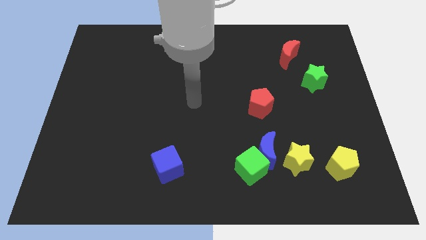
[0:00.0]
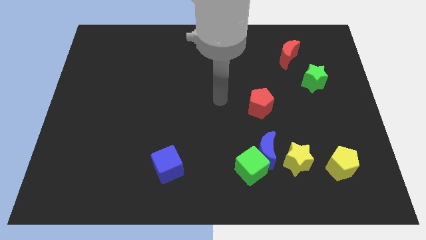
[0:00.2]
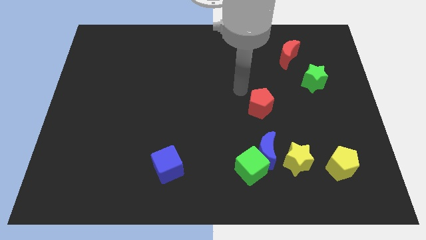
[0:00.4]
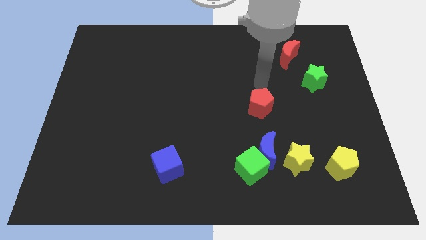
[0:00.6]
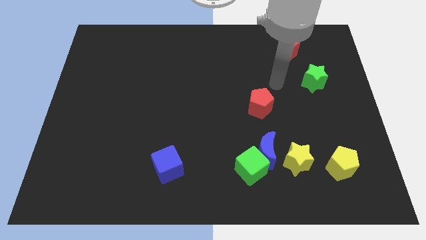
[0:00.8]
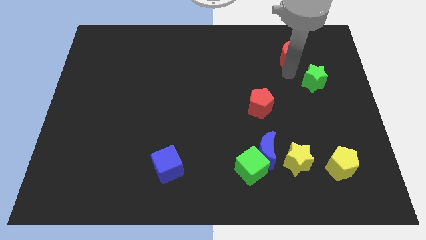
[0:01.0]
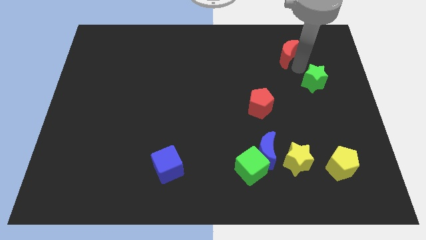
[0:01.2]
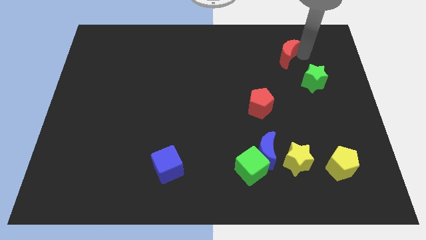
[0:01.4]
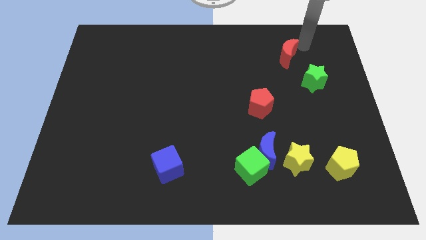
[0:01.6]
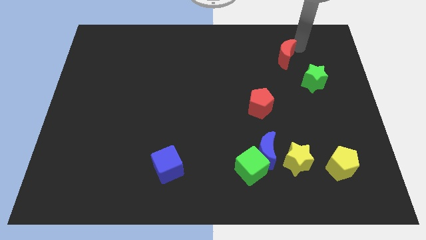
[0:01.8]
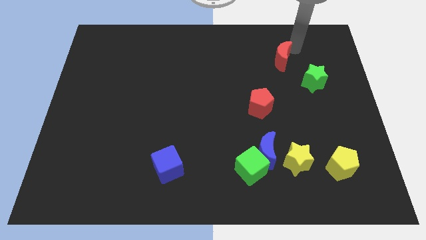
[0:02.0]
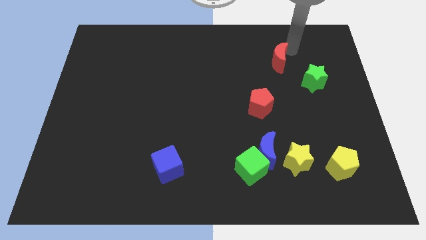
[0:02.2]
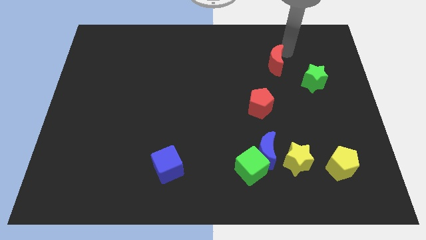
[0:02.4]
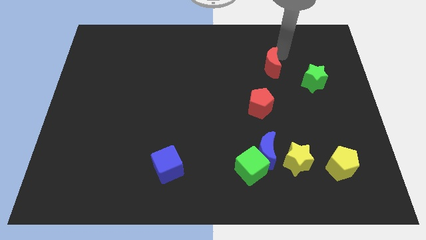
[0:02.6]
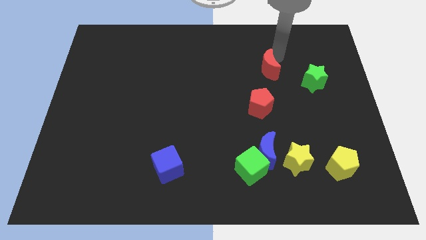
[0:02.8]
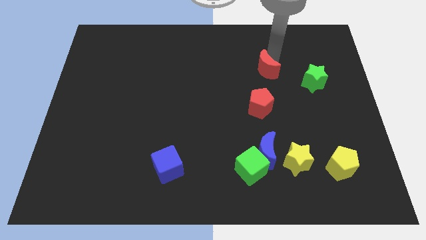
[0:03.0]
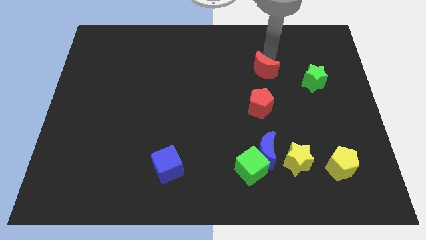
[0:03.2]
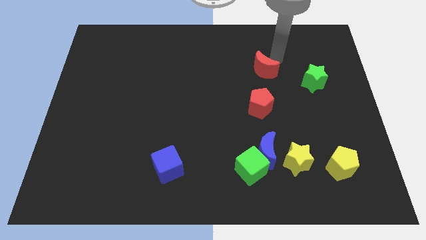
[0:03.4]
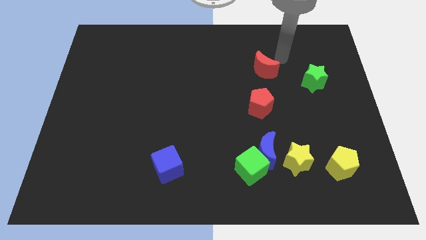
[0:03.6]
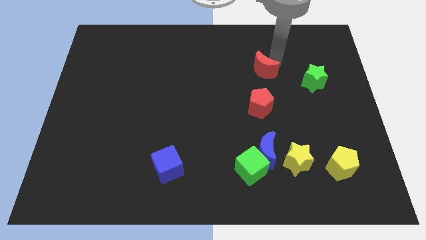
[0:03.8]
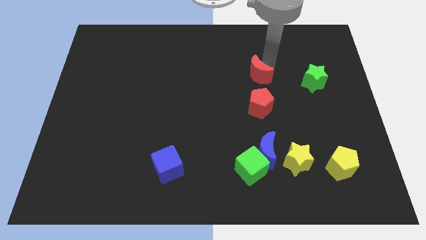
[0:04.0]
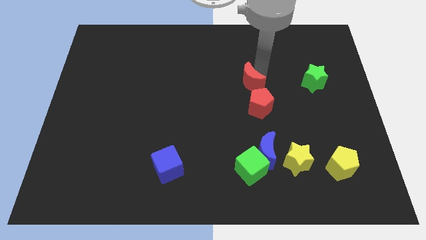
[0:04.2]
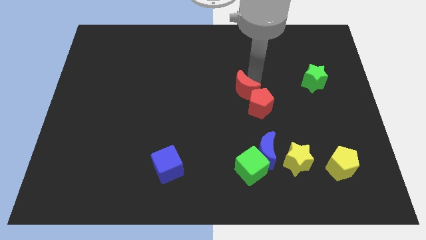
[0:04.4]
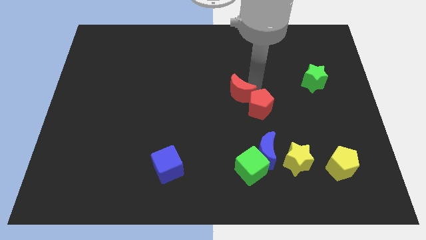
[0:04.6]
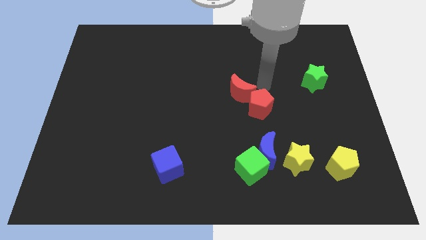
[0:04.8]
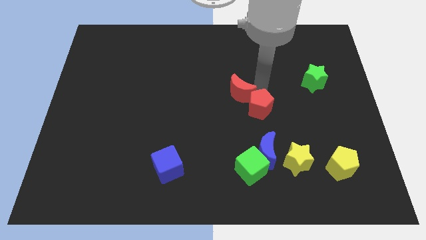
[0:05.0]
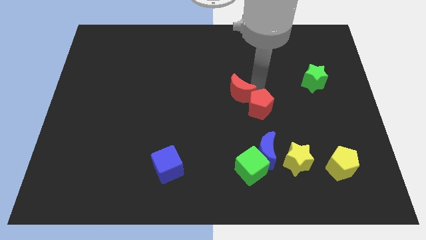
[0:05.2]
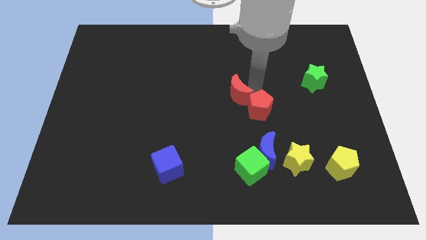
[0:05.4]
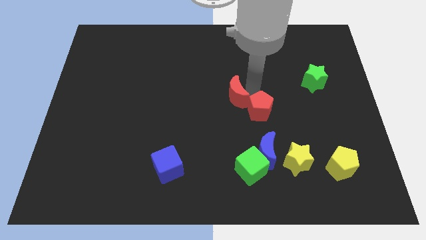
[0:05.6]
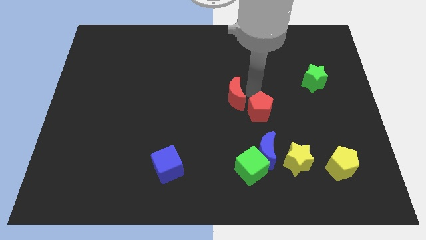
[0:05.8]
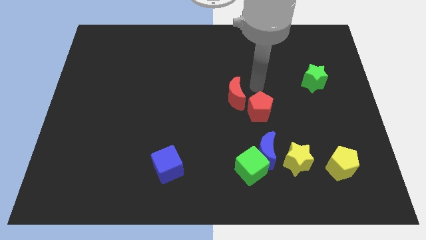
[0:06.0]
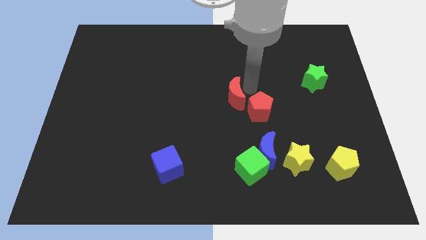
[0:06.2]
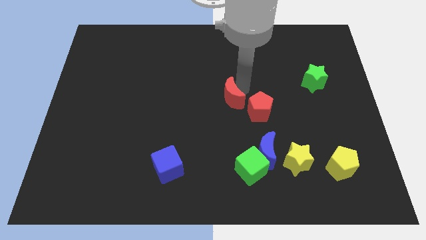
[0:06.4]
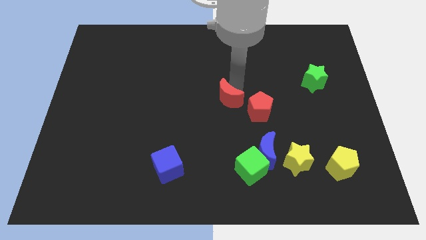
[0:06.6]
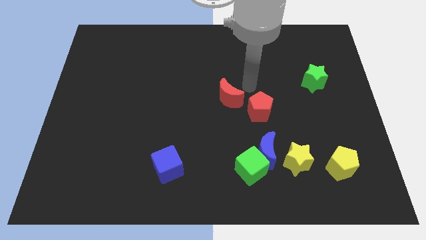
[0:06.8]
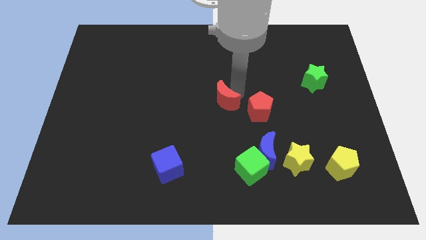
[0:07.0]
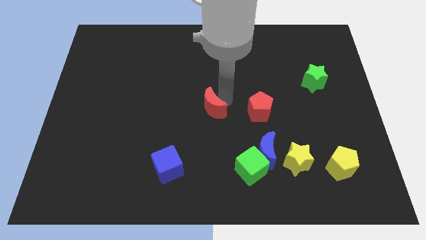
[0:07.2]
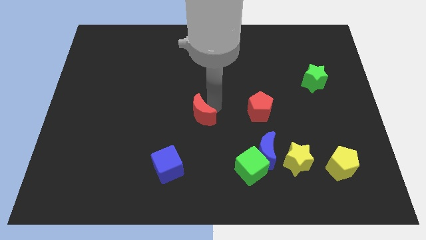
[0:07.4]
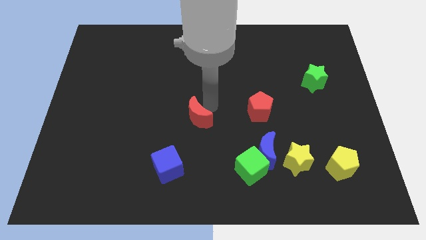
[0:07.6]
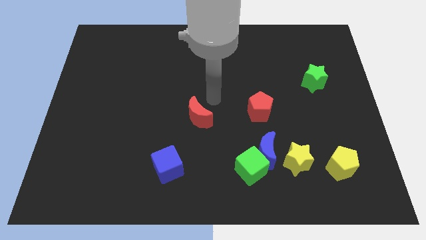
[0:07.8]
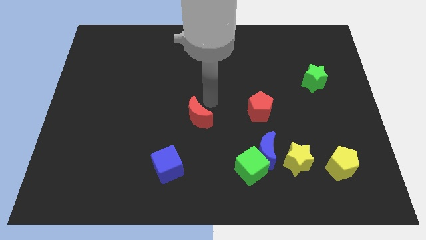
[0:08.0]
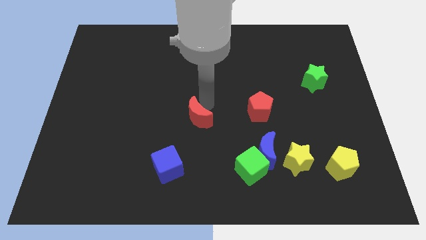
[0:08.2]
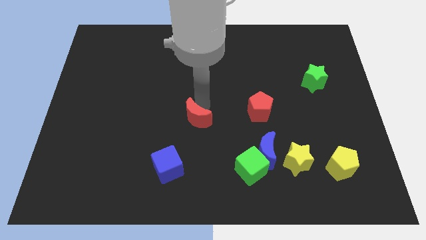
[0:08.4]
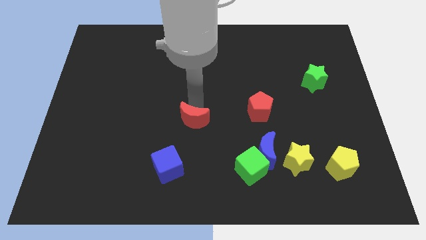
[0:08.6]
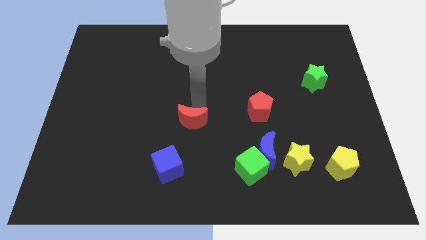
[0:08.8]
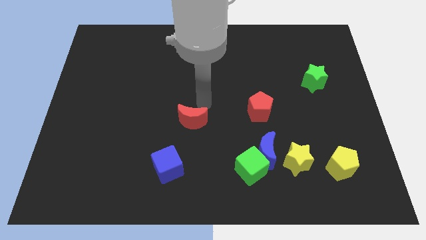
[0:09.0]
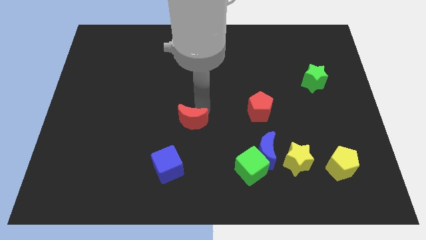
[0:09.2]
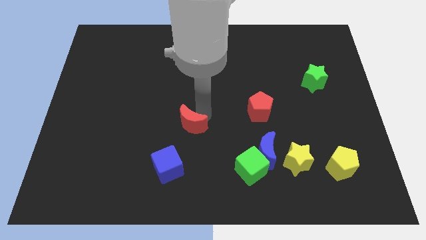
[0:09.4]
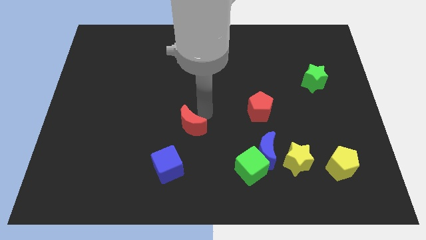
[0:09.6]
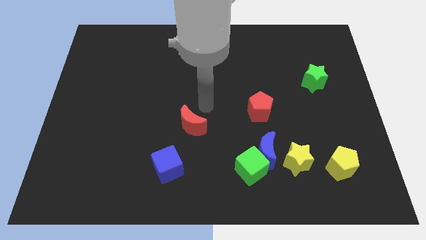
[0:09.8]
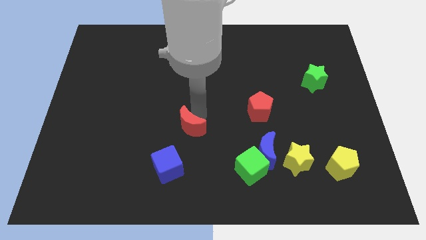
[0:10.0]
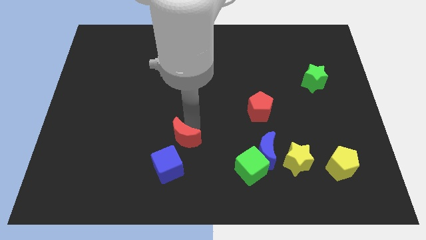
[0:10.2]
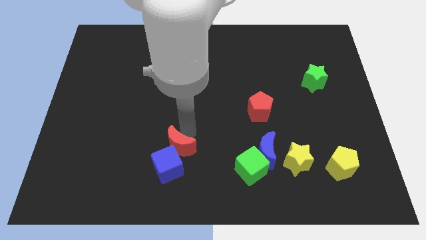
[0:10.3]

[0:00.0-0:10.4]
move the red moon next to the blue cube

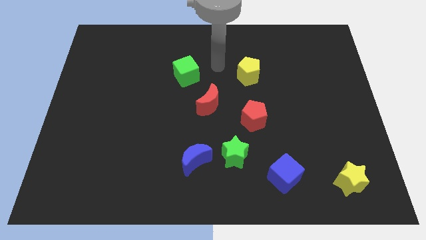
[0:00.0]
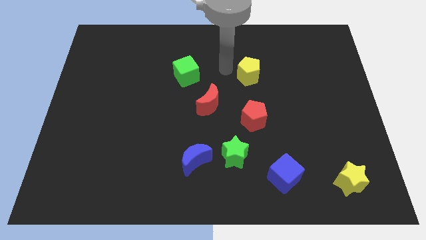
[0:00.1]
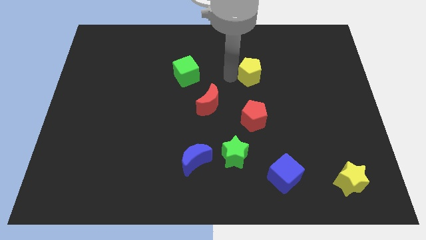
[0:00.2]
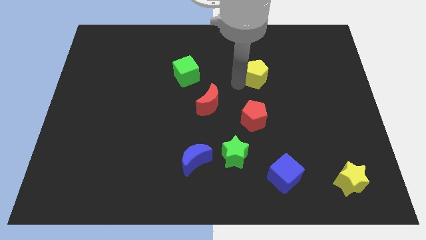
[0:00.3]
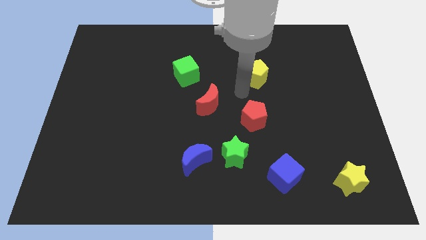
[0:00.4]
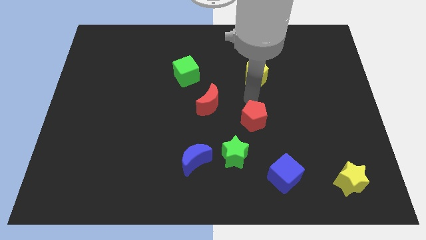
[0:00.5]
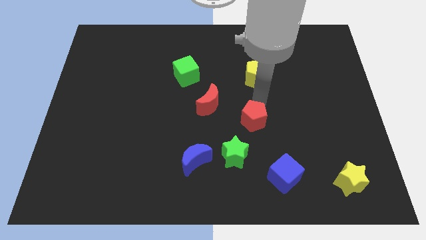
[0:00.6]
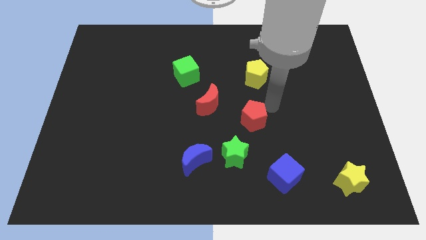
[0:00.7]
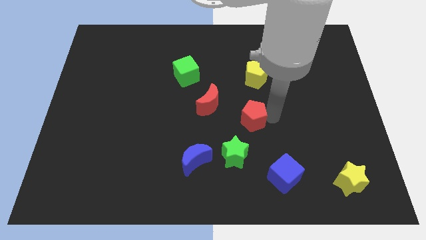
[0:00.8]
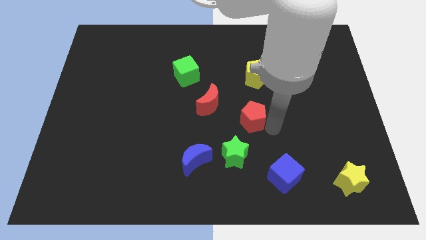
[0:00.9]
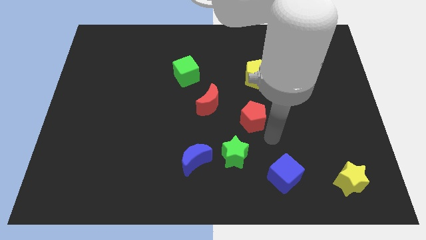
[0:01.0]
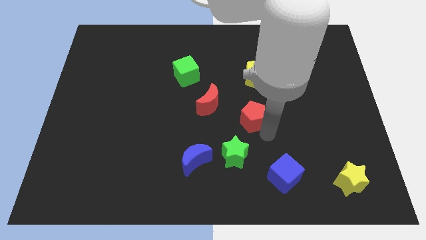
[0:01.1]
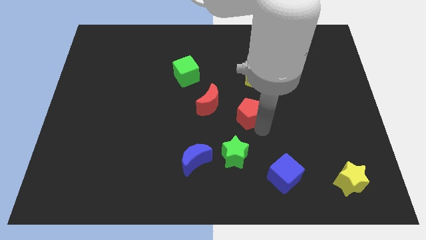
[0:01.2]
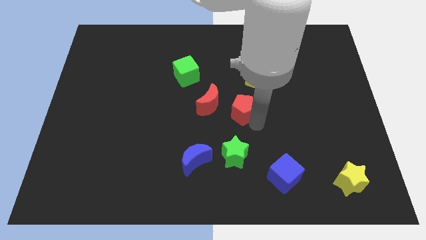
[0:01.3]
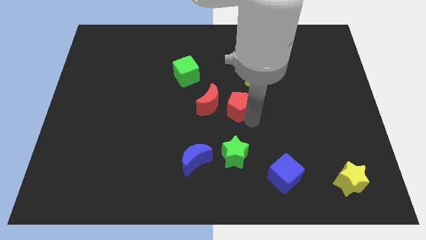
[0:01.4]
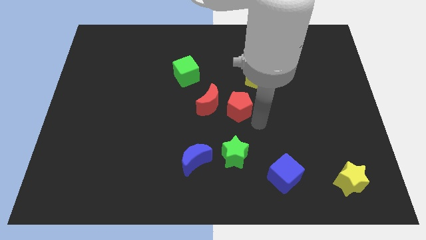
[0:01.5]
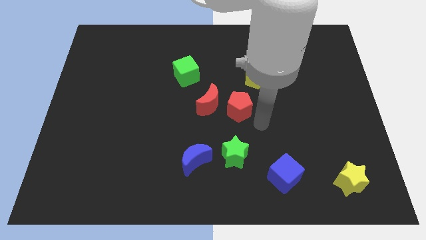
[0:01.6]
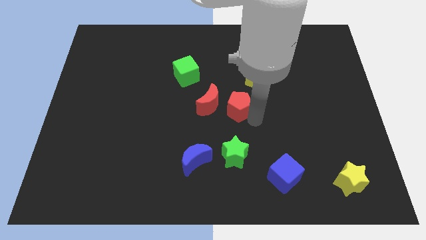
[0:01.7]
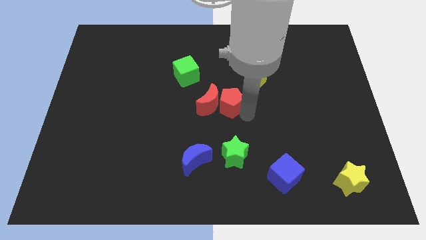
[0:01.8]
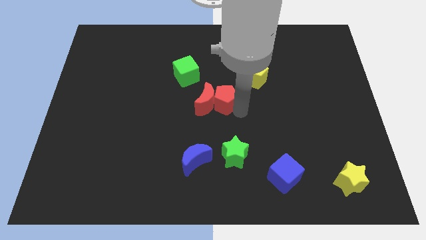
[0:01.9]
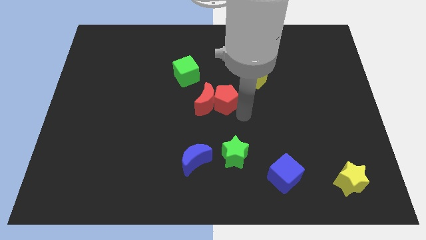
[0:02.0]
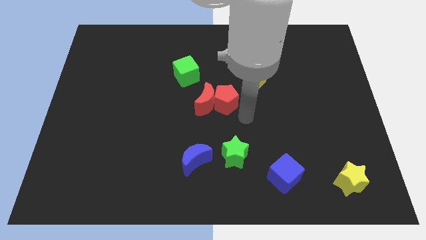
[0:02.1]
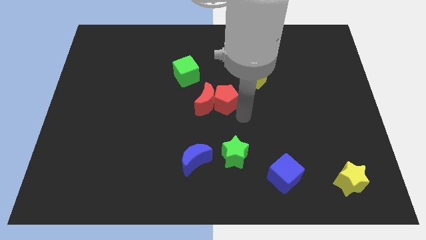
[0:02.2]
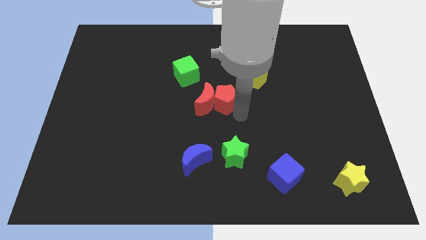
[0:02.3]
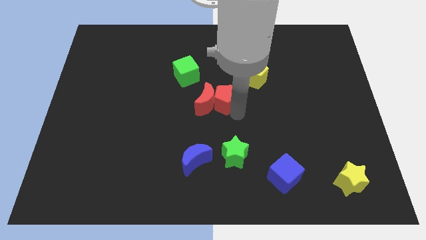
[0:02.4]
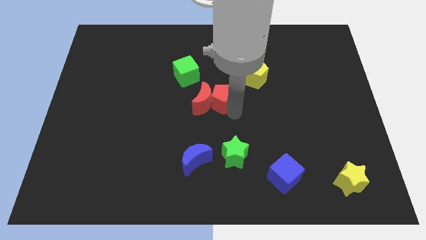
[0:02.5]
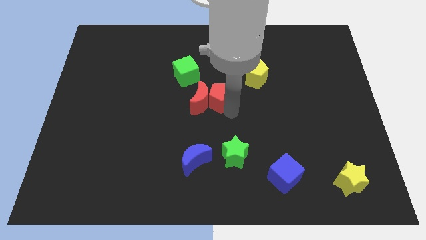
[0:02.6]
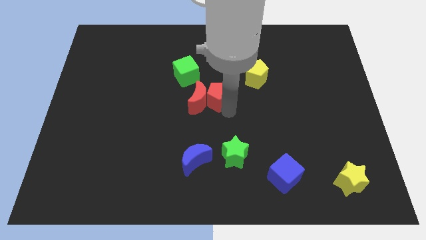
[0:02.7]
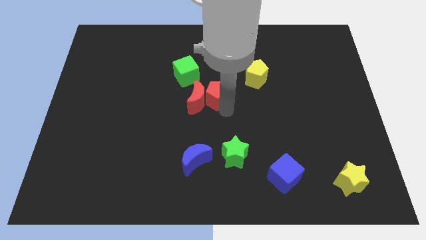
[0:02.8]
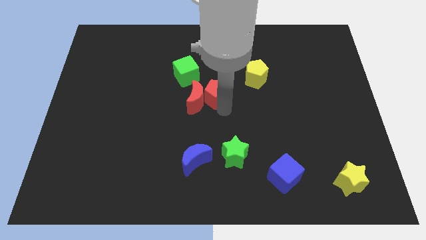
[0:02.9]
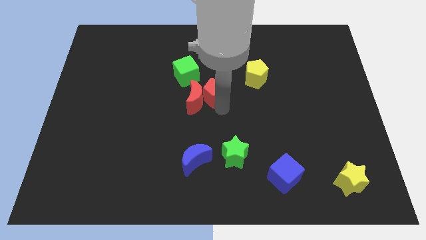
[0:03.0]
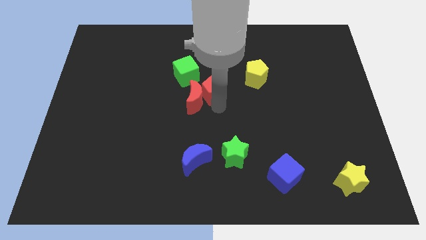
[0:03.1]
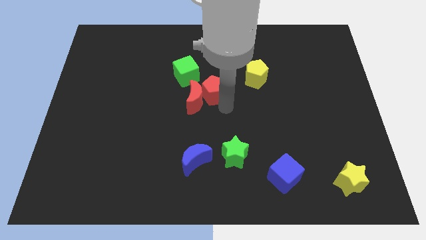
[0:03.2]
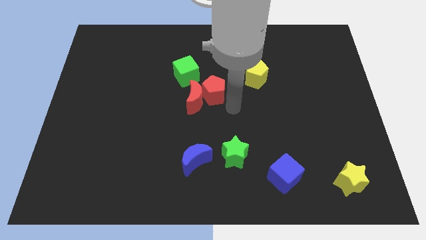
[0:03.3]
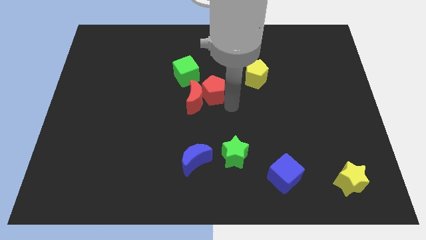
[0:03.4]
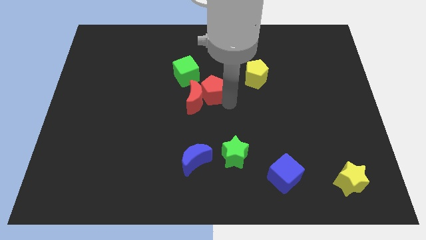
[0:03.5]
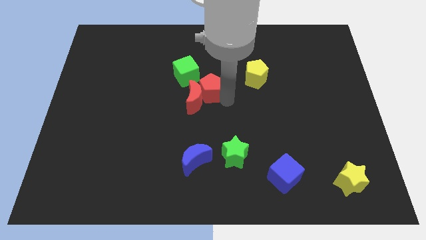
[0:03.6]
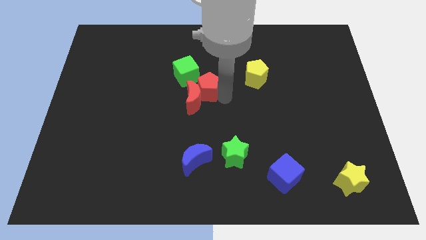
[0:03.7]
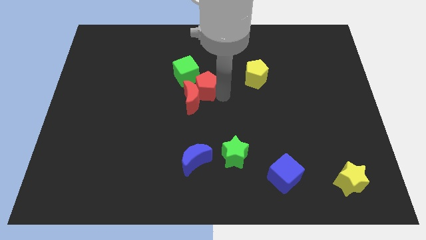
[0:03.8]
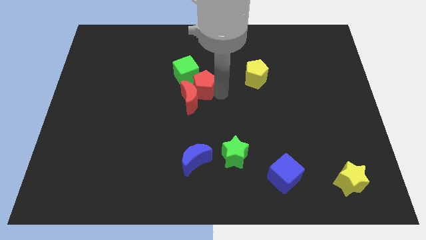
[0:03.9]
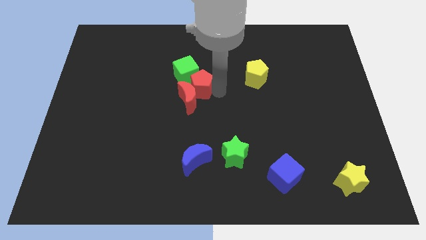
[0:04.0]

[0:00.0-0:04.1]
slide the red pentagon next to the green cube
